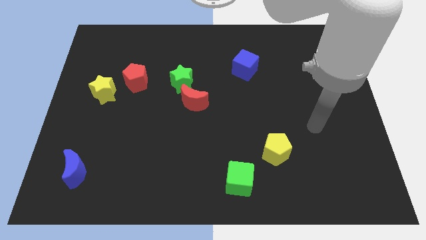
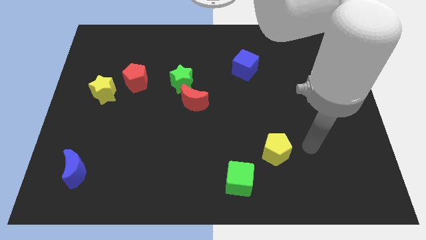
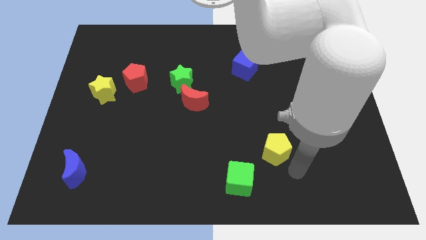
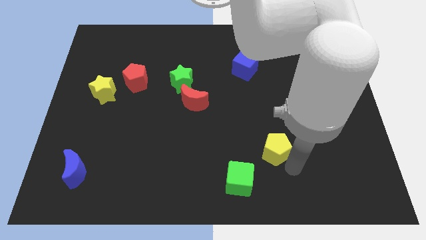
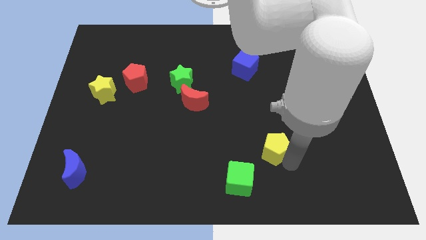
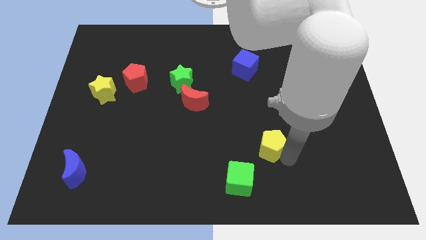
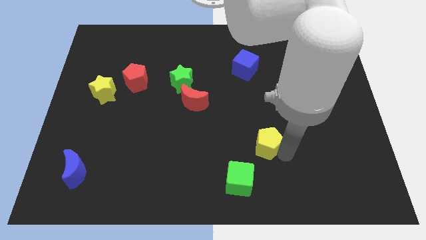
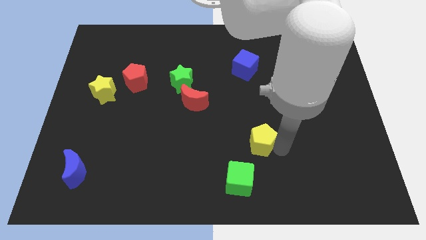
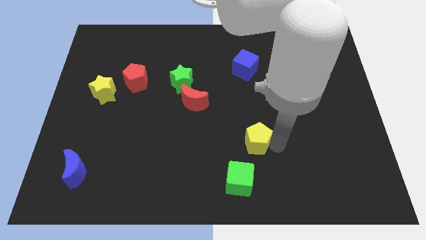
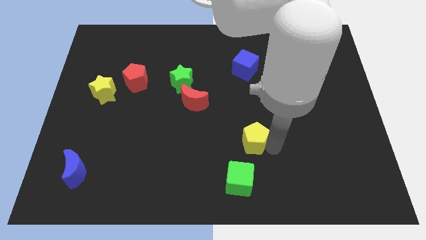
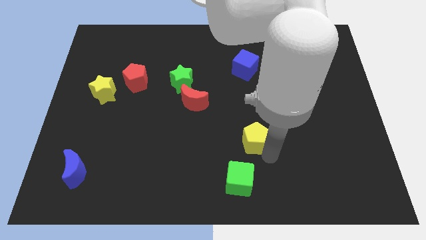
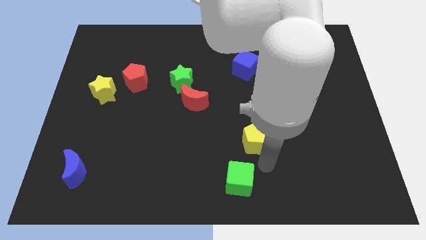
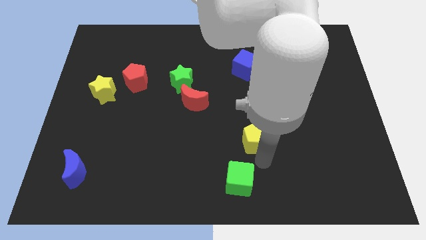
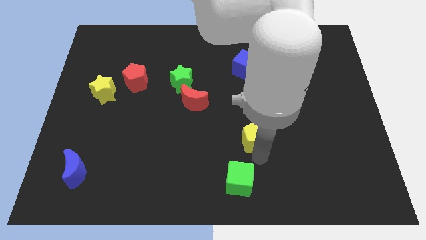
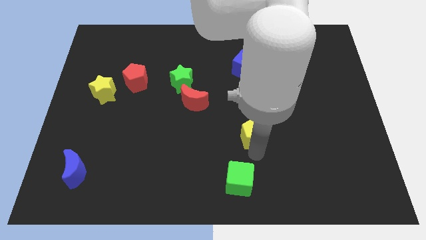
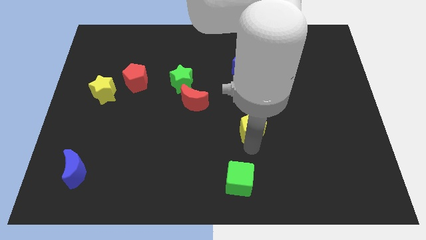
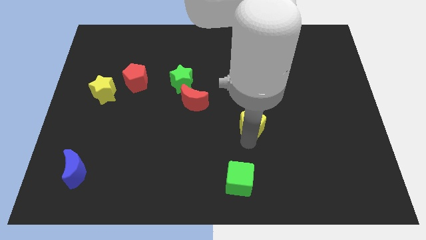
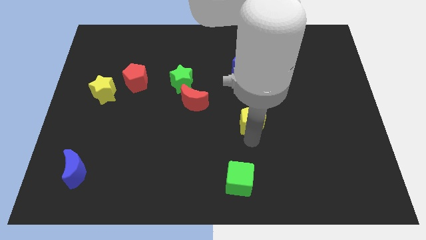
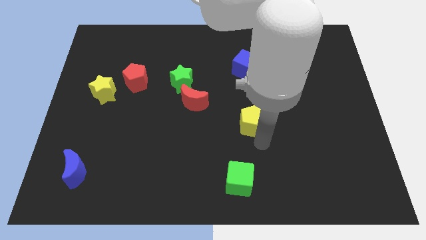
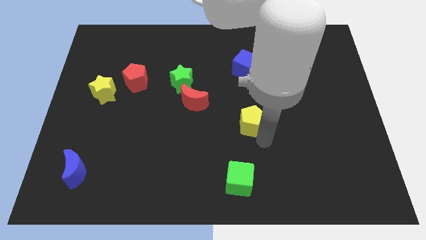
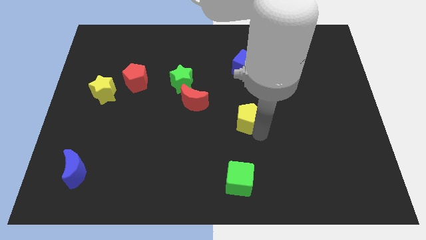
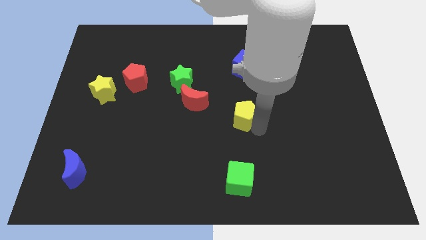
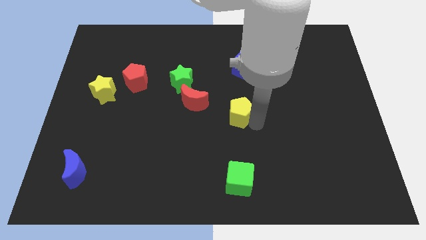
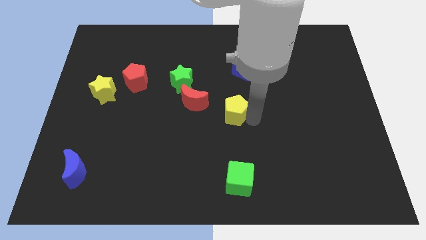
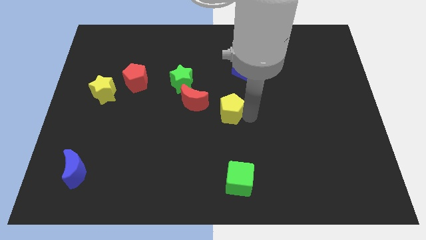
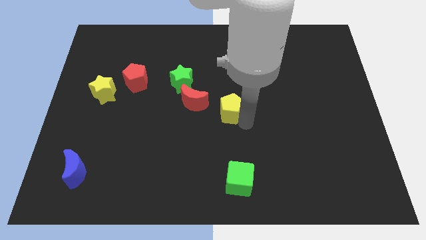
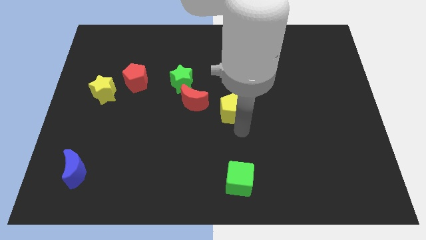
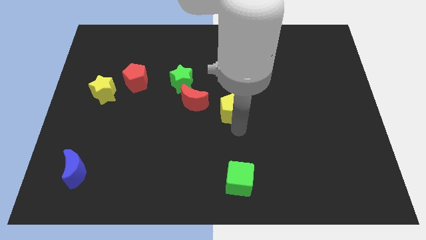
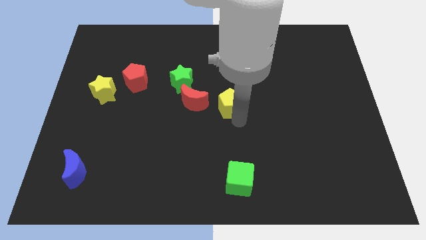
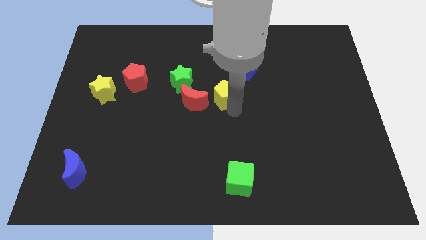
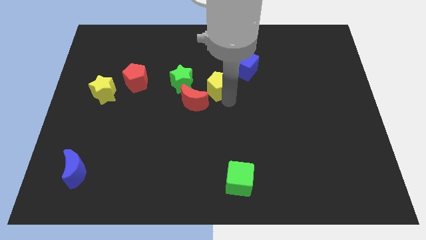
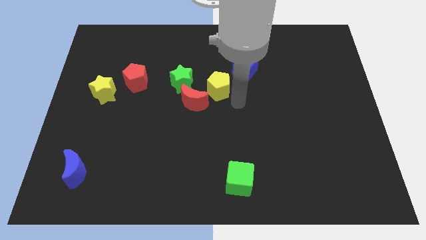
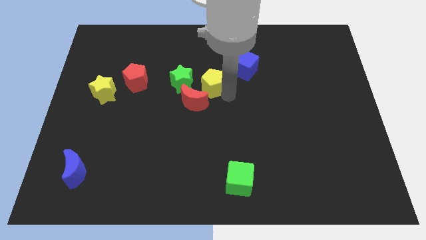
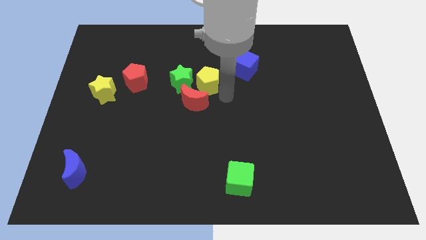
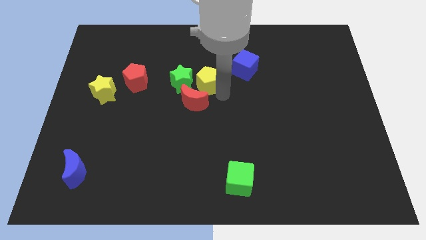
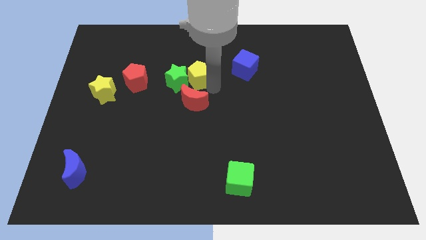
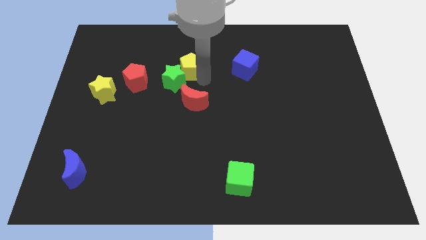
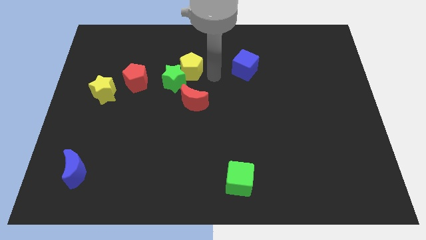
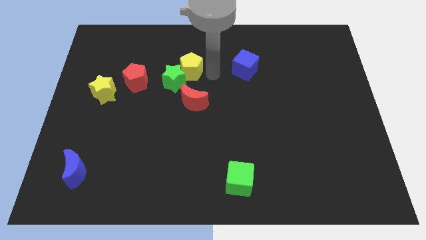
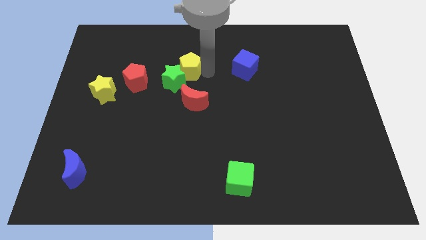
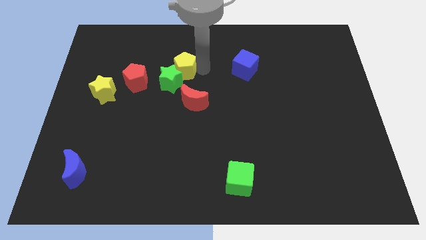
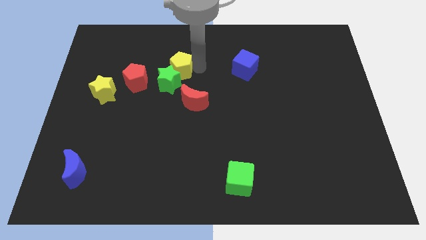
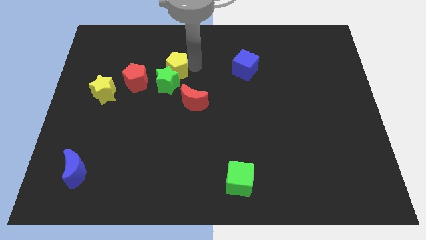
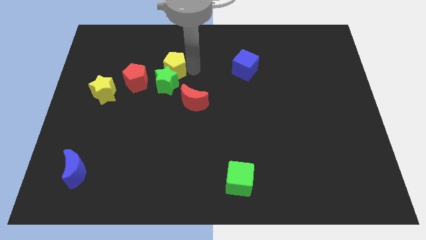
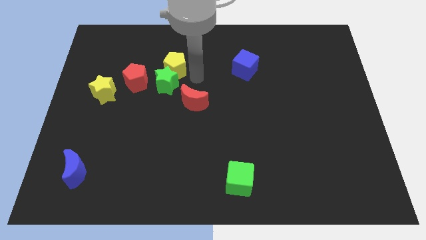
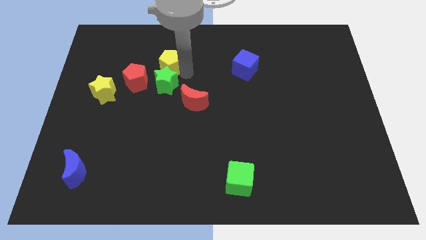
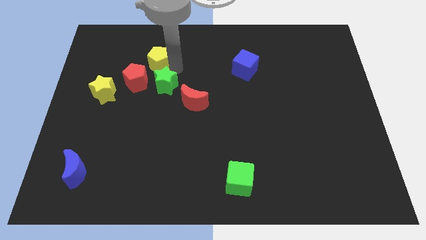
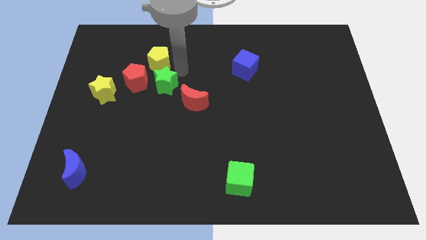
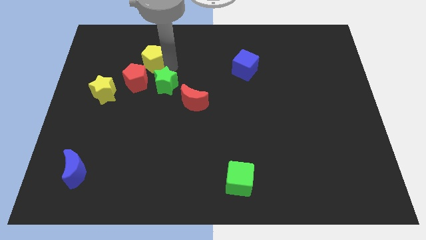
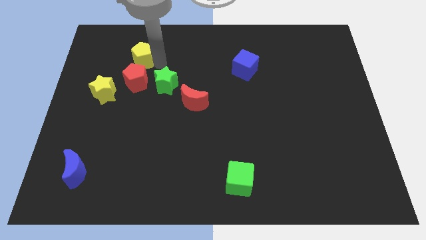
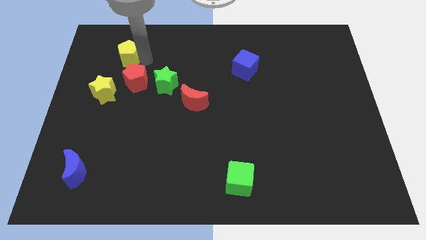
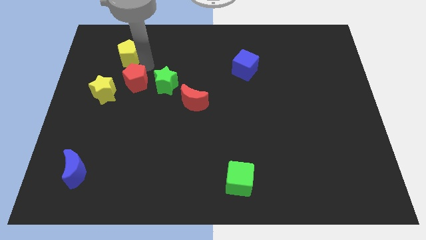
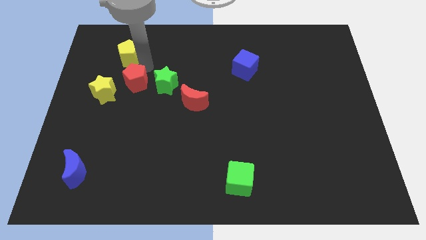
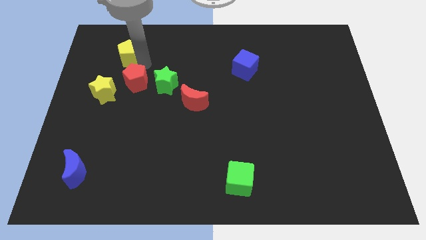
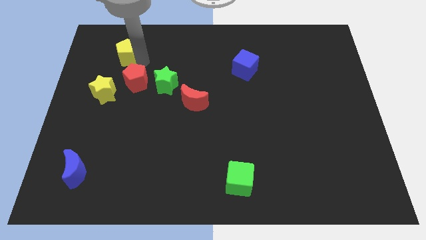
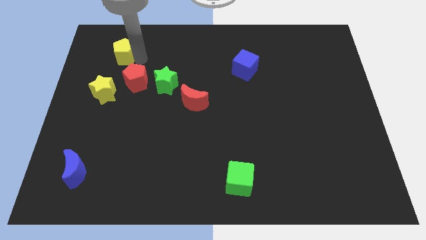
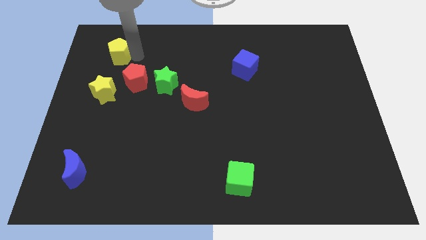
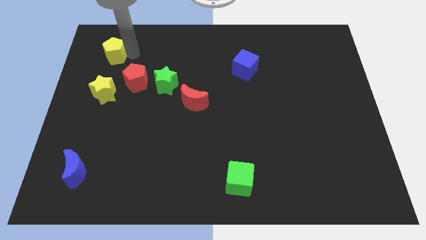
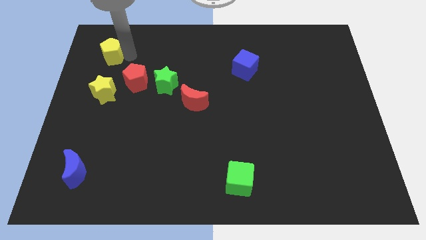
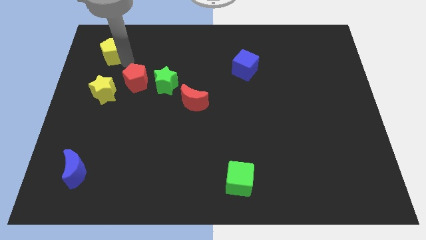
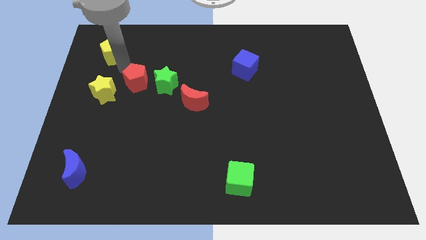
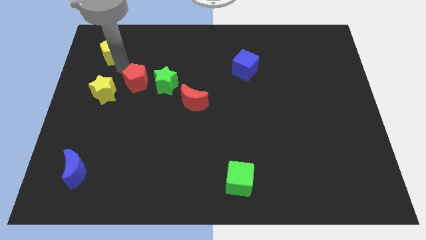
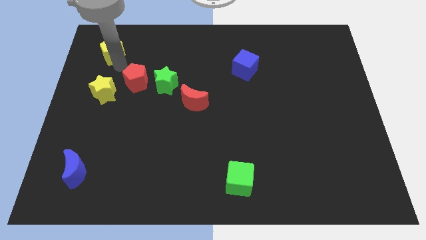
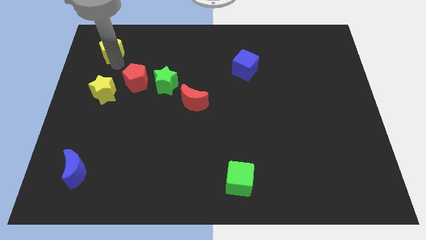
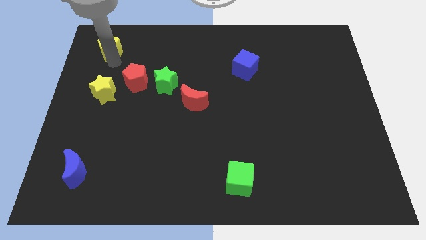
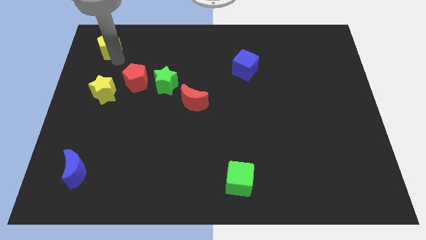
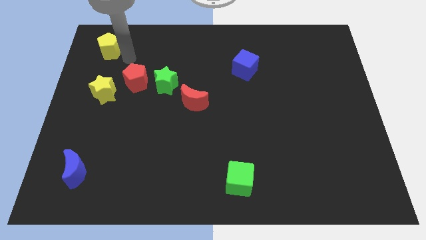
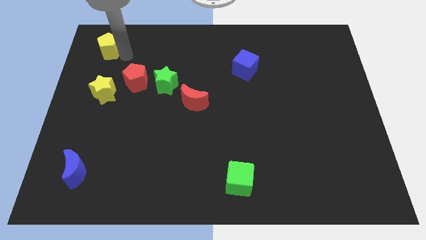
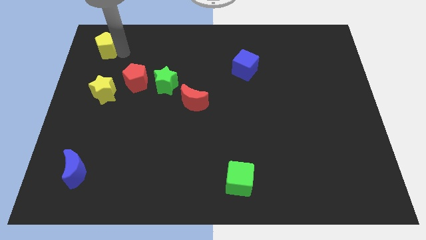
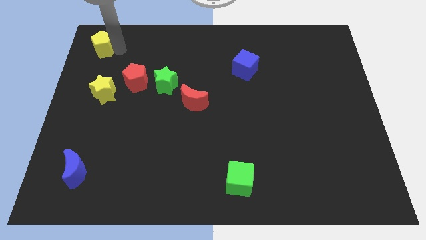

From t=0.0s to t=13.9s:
put the yellow pentagon to the top left
